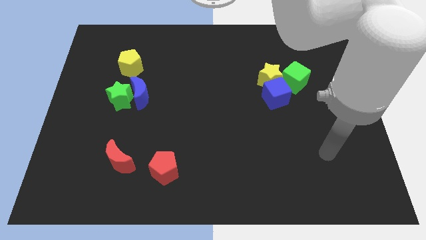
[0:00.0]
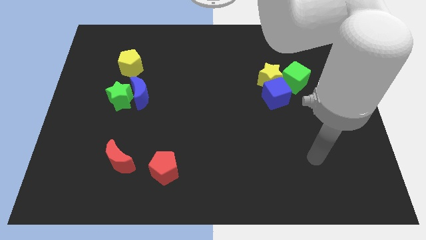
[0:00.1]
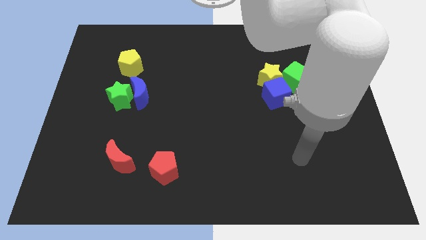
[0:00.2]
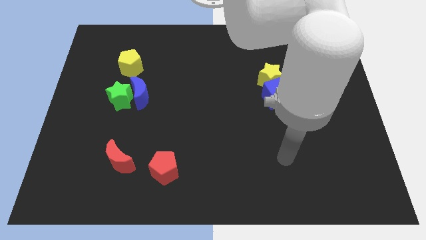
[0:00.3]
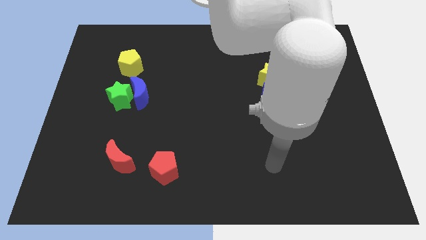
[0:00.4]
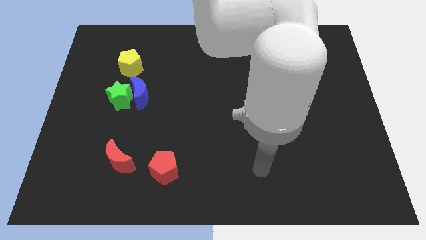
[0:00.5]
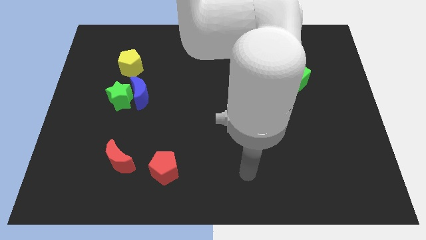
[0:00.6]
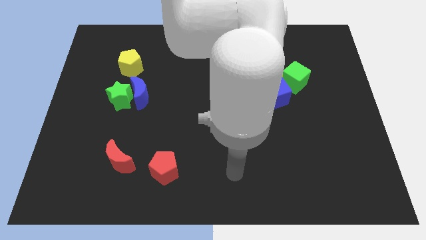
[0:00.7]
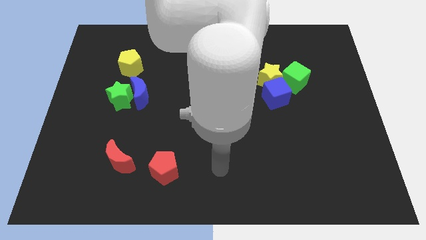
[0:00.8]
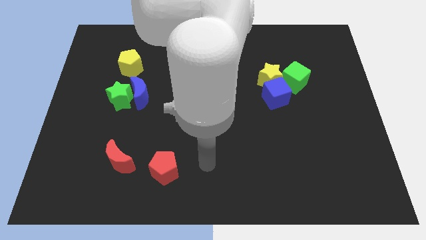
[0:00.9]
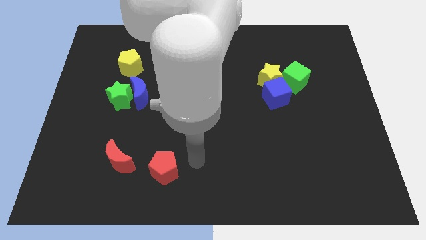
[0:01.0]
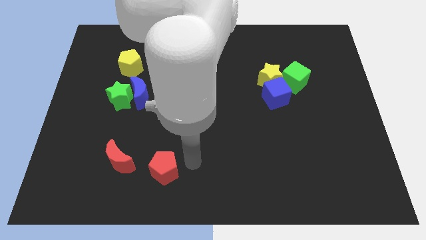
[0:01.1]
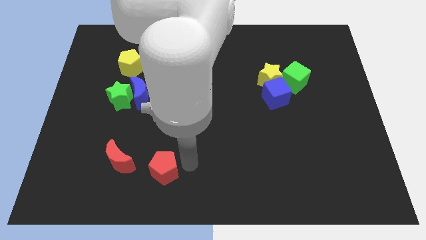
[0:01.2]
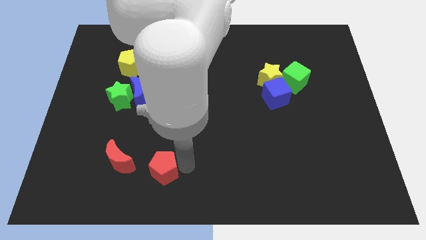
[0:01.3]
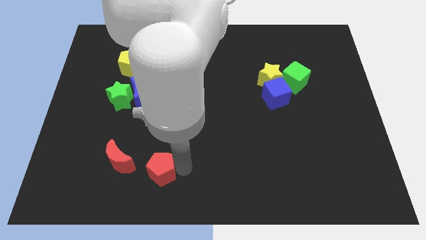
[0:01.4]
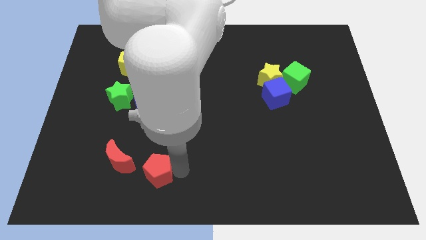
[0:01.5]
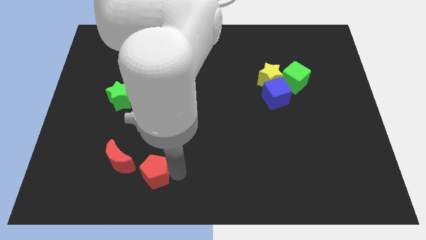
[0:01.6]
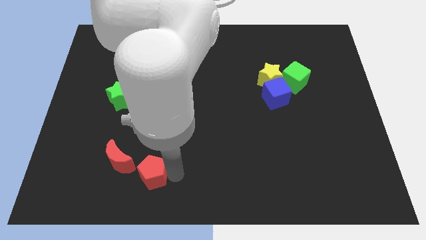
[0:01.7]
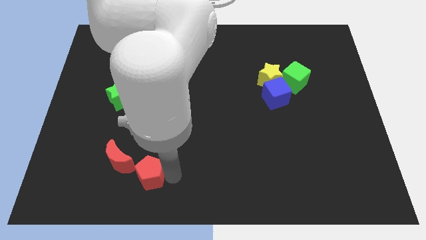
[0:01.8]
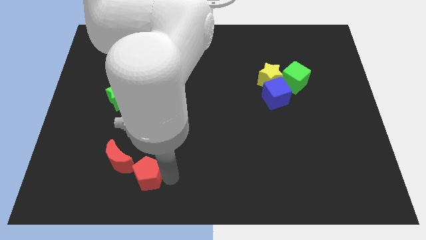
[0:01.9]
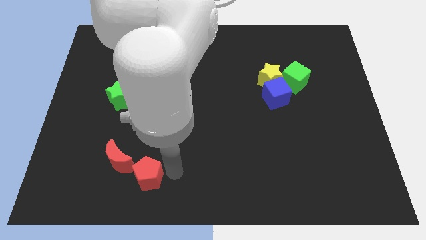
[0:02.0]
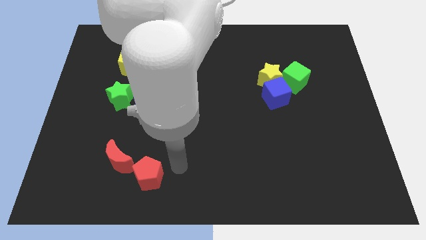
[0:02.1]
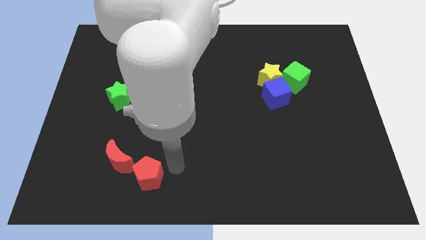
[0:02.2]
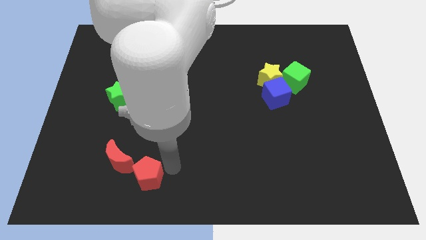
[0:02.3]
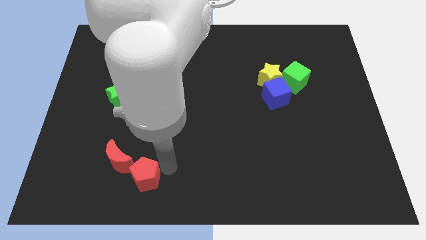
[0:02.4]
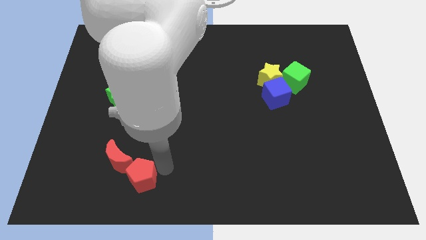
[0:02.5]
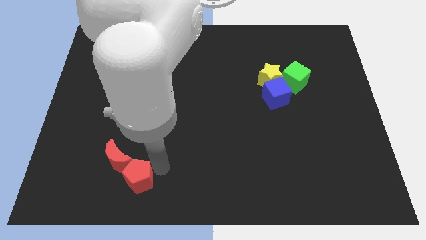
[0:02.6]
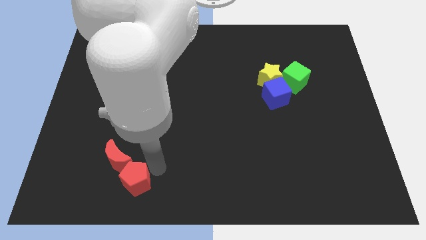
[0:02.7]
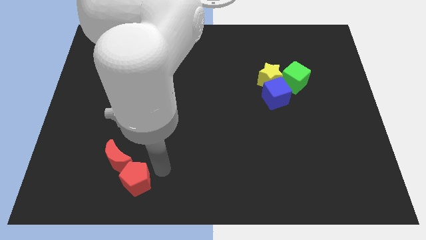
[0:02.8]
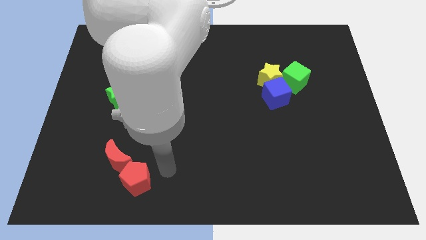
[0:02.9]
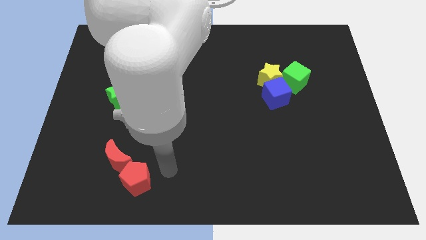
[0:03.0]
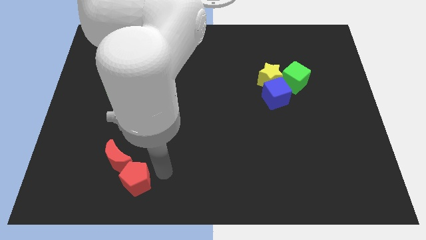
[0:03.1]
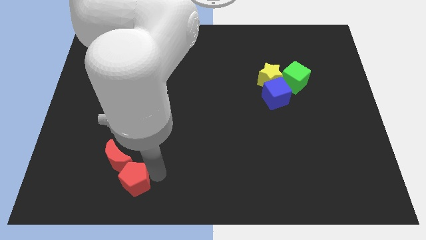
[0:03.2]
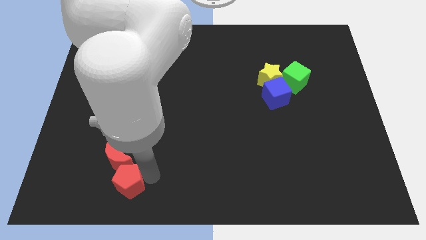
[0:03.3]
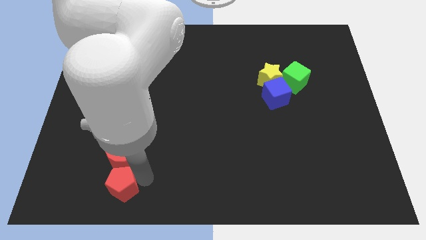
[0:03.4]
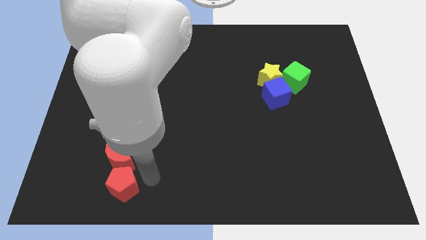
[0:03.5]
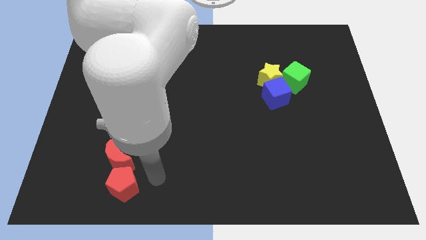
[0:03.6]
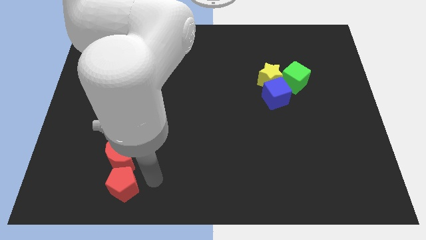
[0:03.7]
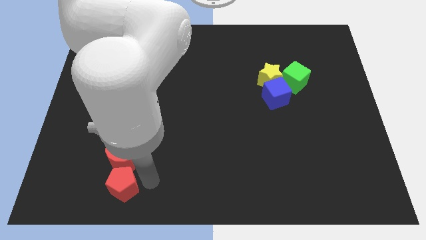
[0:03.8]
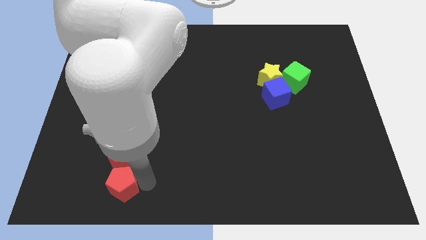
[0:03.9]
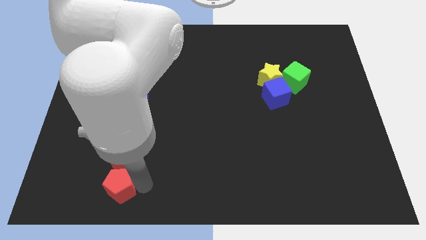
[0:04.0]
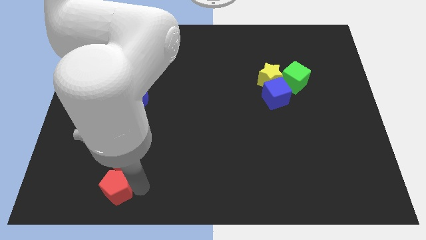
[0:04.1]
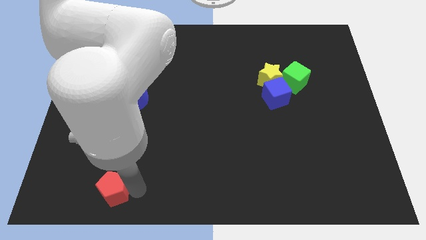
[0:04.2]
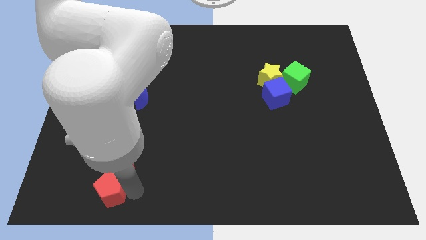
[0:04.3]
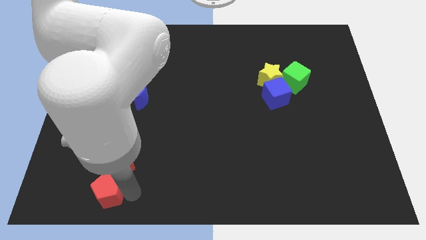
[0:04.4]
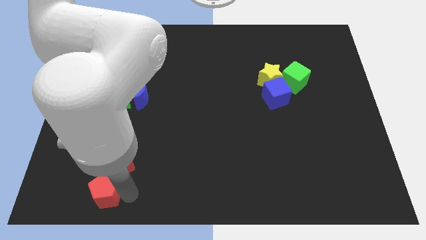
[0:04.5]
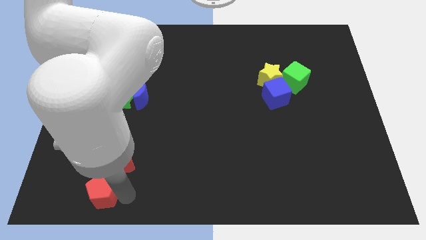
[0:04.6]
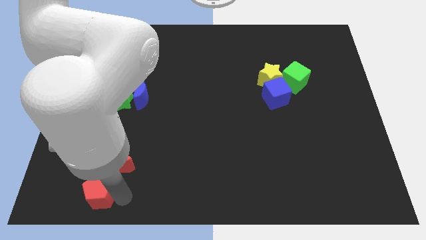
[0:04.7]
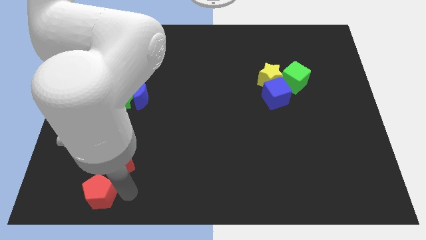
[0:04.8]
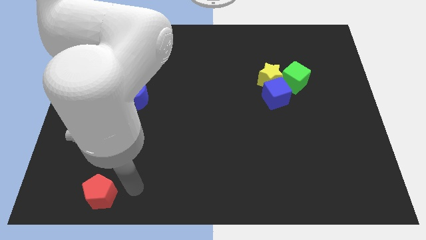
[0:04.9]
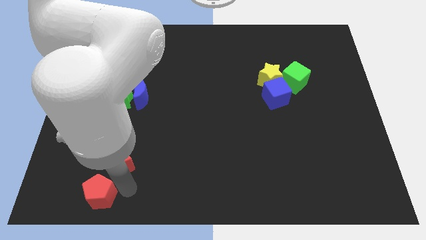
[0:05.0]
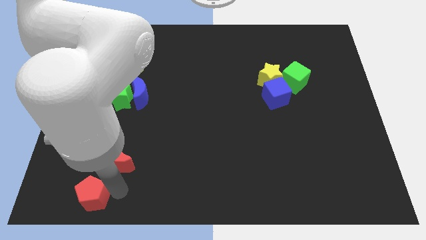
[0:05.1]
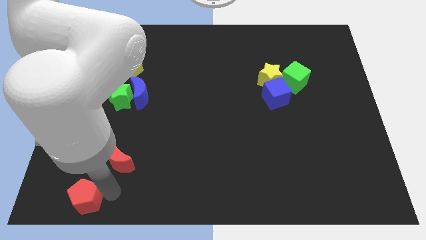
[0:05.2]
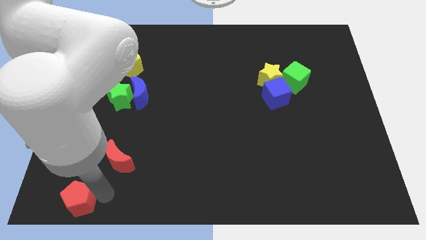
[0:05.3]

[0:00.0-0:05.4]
slide the red pentagon to the lower left corner
